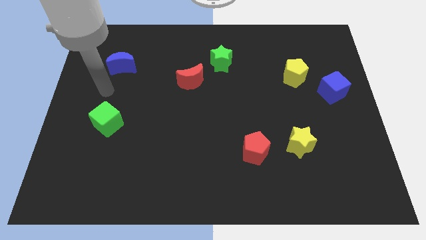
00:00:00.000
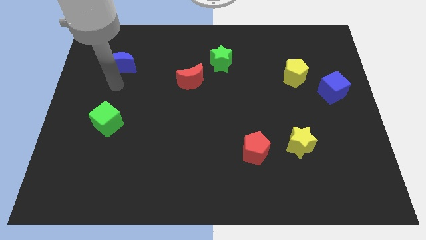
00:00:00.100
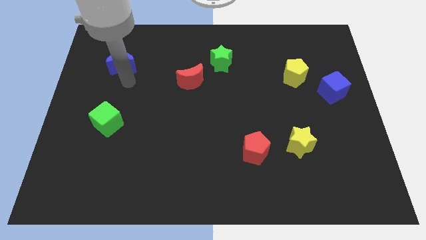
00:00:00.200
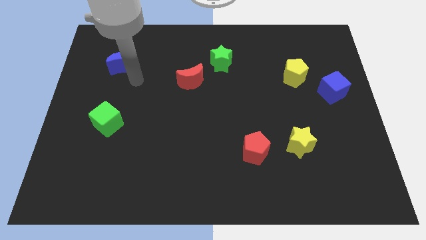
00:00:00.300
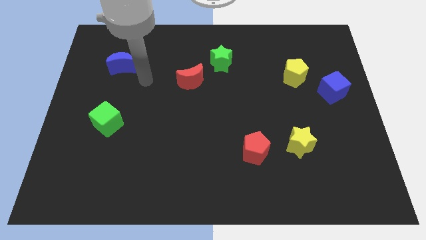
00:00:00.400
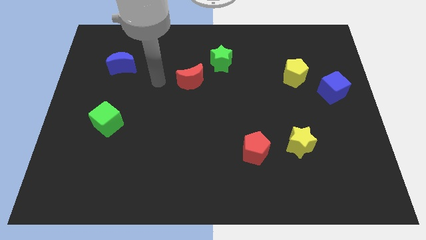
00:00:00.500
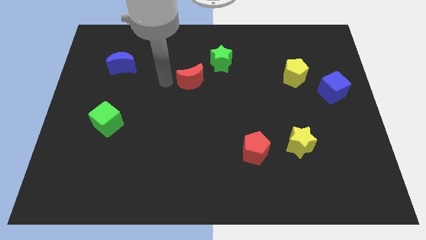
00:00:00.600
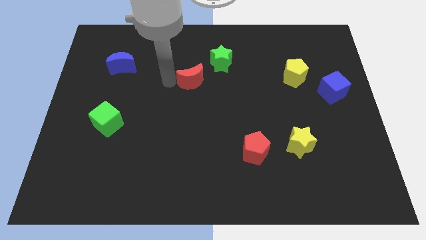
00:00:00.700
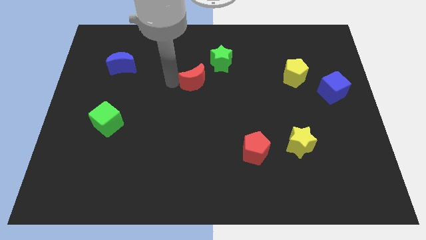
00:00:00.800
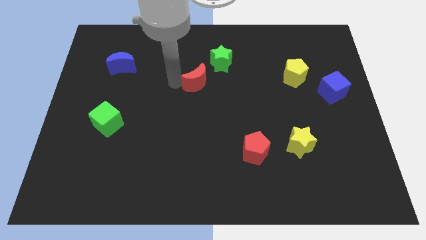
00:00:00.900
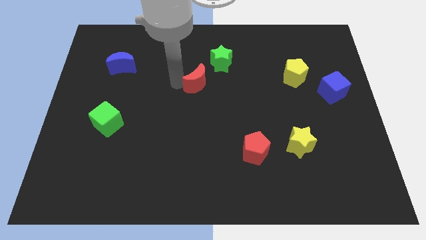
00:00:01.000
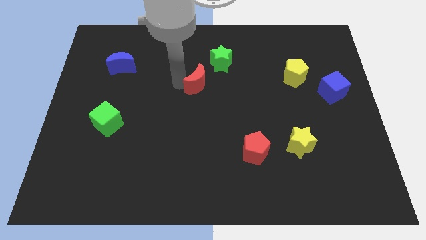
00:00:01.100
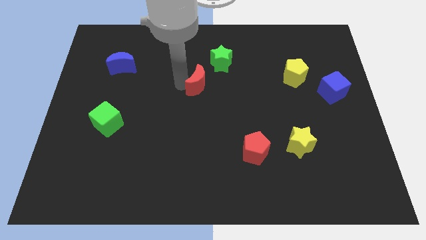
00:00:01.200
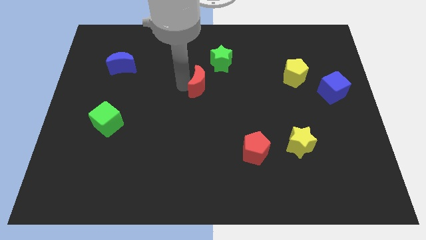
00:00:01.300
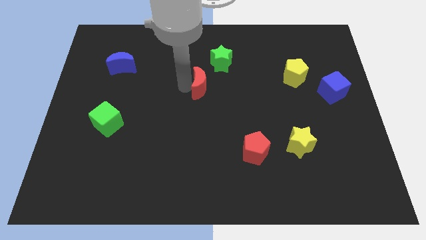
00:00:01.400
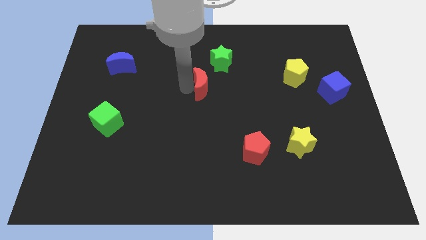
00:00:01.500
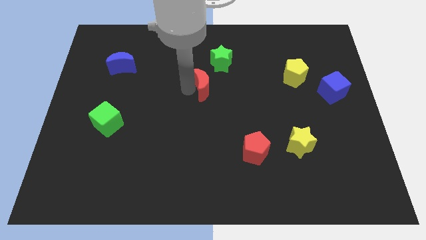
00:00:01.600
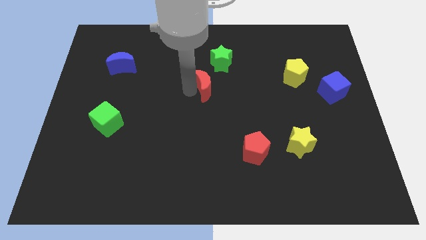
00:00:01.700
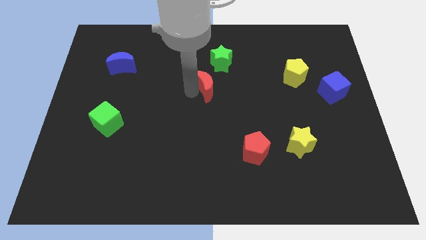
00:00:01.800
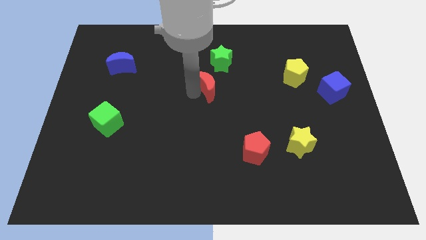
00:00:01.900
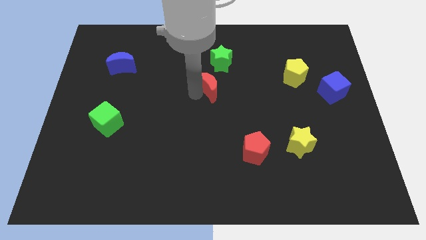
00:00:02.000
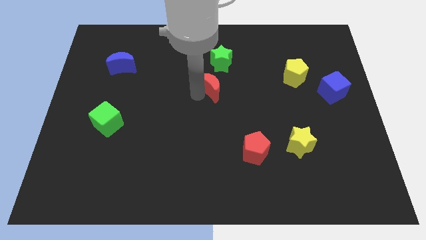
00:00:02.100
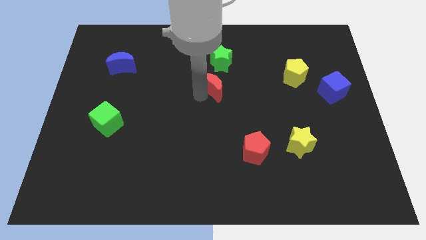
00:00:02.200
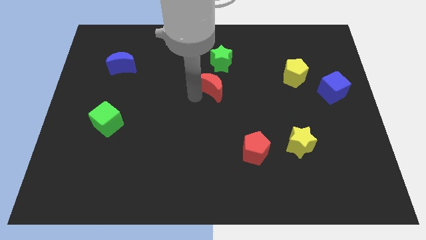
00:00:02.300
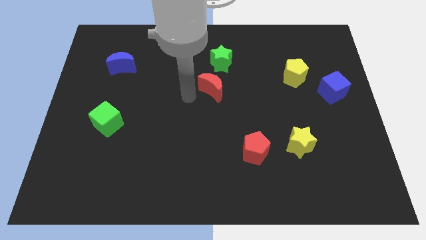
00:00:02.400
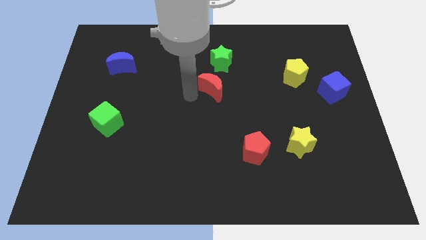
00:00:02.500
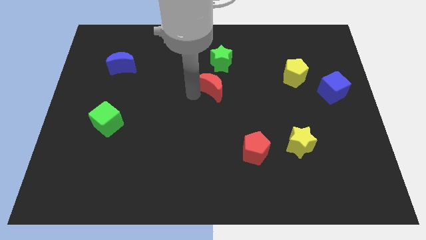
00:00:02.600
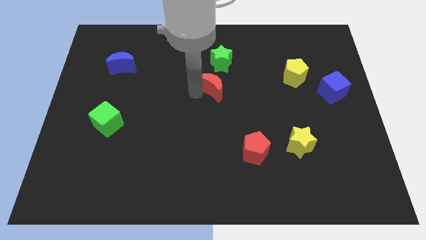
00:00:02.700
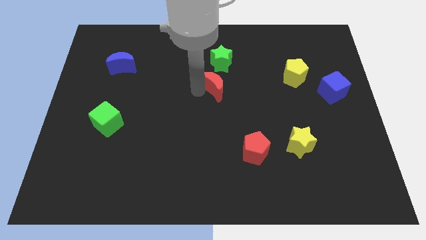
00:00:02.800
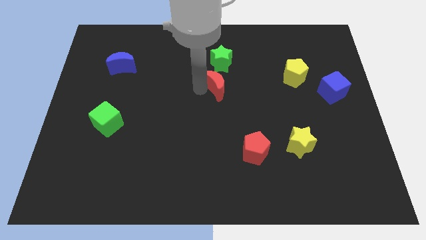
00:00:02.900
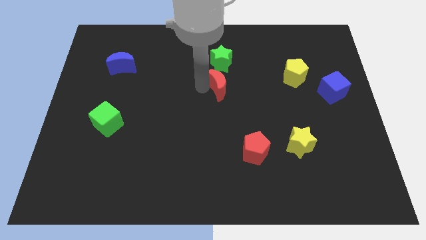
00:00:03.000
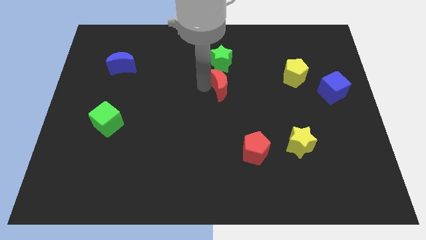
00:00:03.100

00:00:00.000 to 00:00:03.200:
slide the red moon right slightly

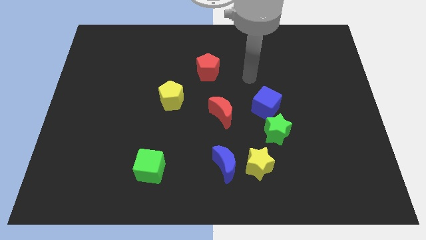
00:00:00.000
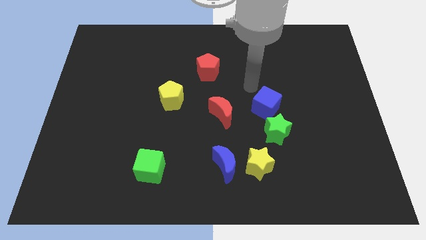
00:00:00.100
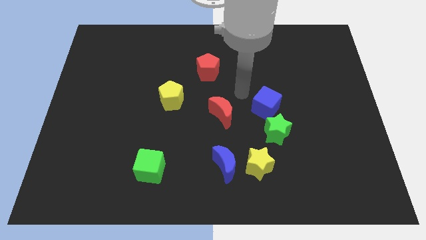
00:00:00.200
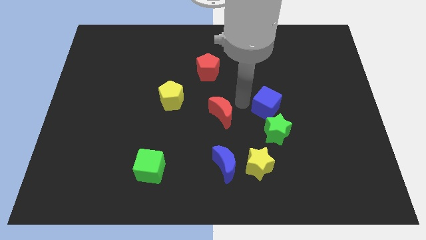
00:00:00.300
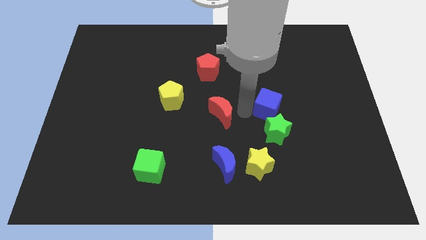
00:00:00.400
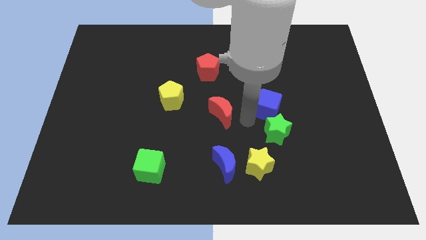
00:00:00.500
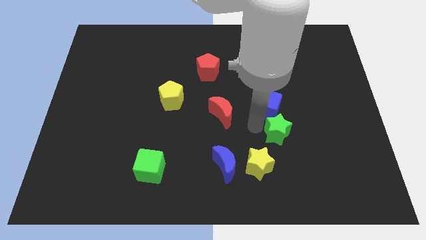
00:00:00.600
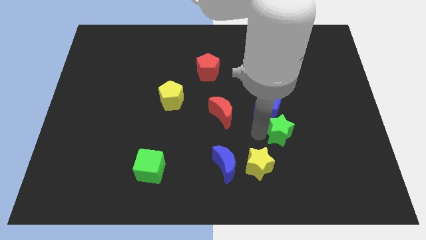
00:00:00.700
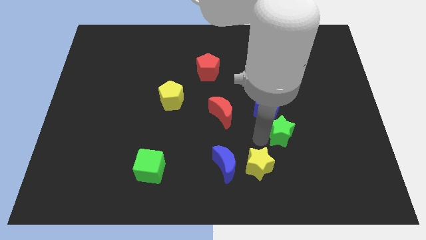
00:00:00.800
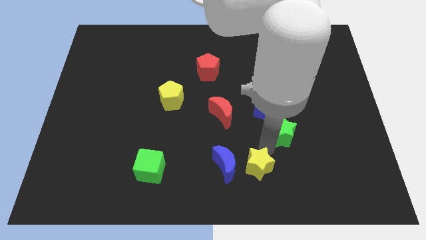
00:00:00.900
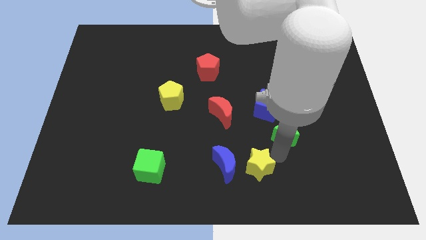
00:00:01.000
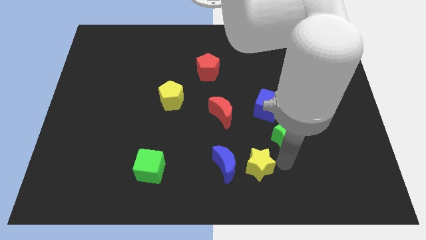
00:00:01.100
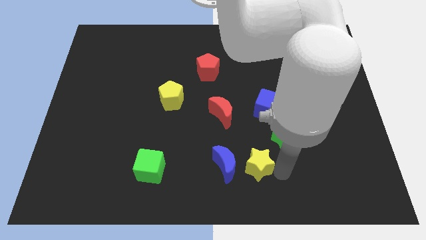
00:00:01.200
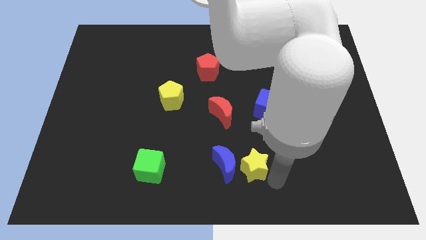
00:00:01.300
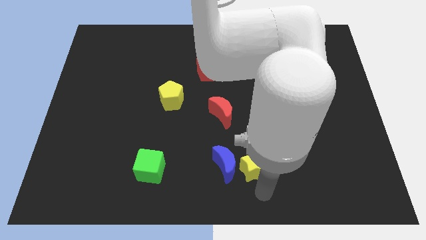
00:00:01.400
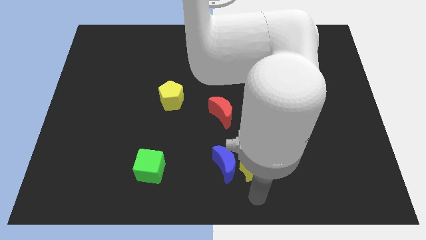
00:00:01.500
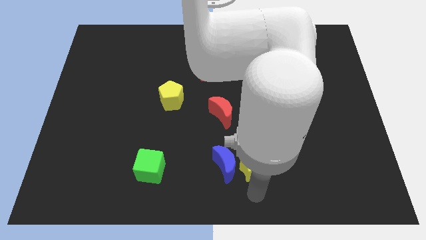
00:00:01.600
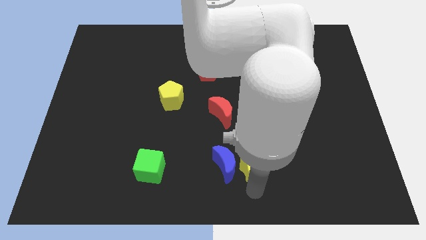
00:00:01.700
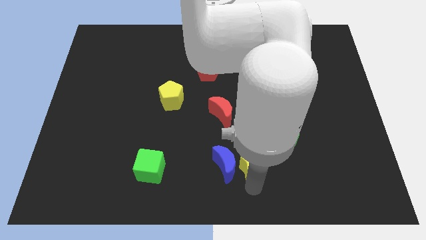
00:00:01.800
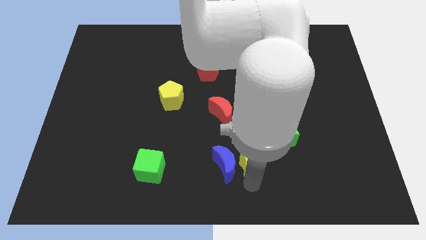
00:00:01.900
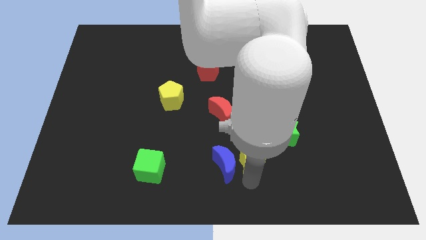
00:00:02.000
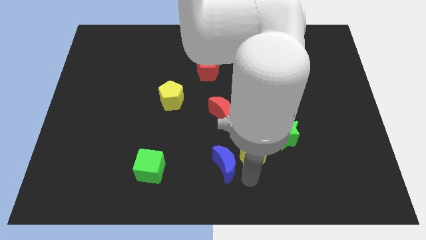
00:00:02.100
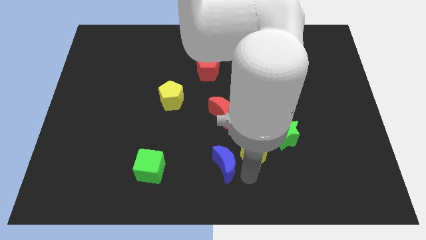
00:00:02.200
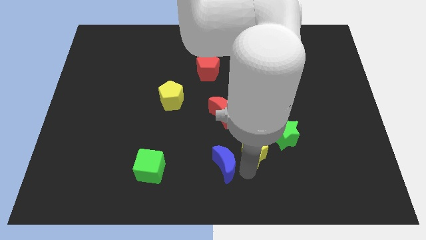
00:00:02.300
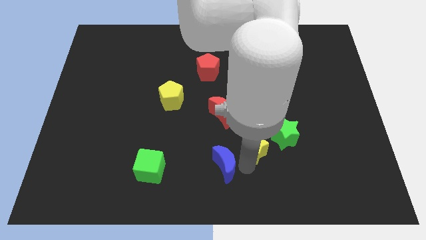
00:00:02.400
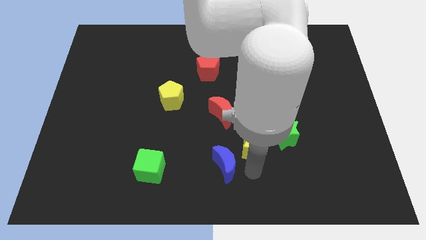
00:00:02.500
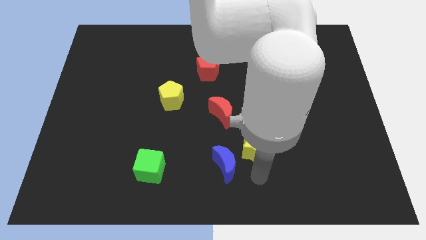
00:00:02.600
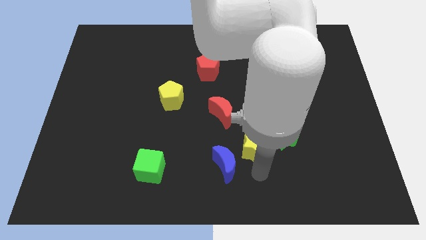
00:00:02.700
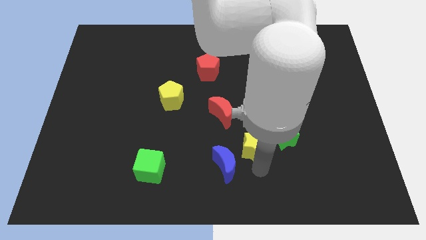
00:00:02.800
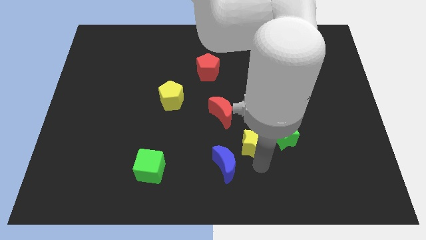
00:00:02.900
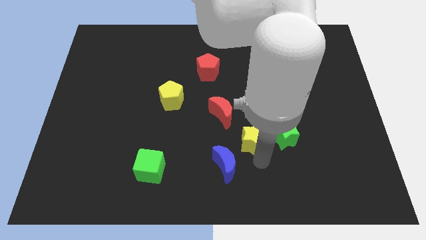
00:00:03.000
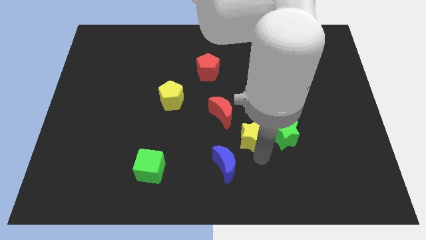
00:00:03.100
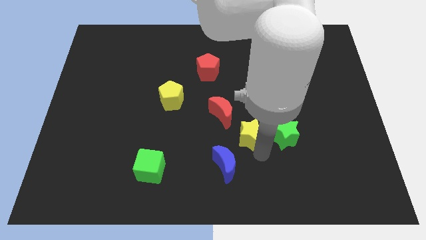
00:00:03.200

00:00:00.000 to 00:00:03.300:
move the yellow star a bit up

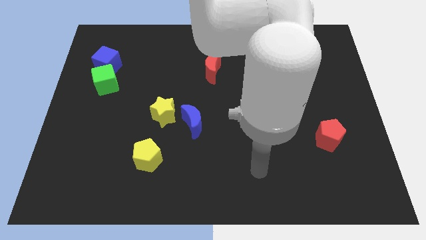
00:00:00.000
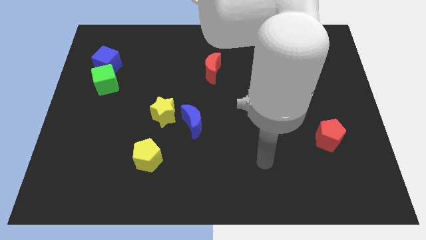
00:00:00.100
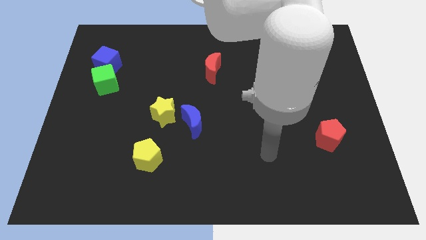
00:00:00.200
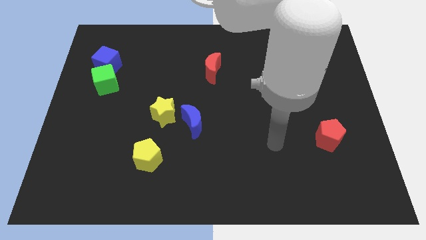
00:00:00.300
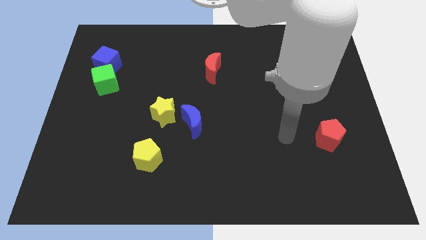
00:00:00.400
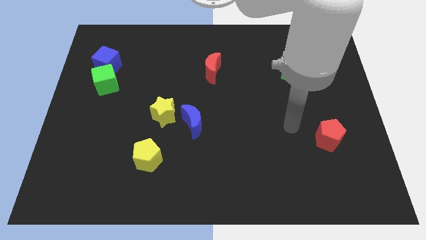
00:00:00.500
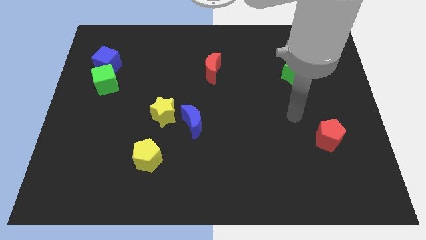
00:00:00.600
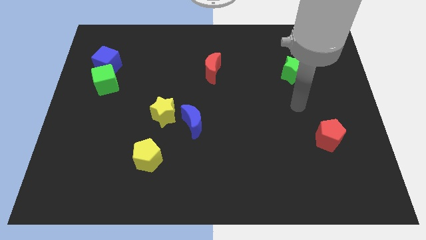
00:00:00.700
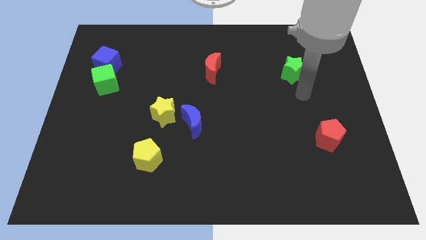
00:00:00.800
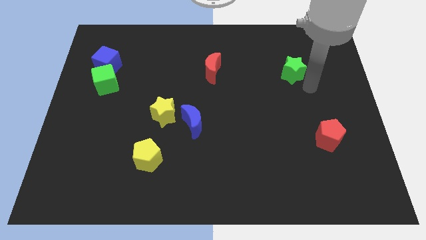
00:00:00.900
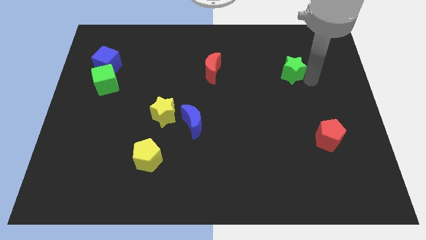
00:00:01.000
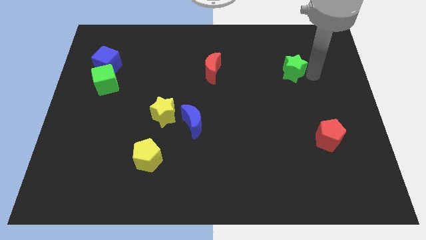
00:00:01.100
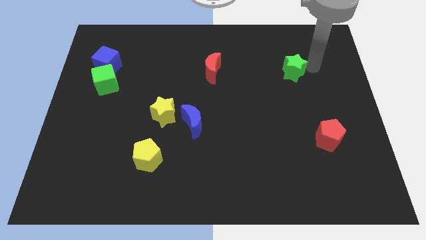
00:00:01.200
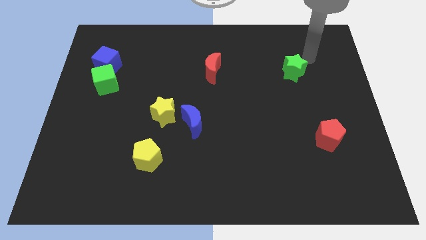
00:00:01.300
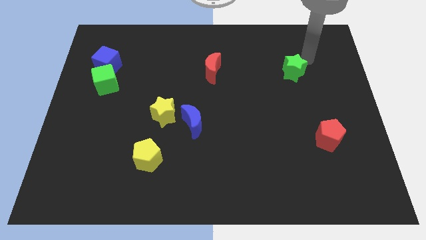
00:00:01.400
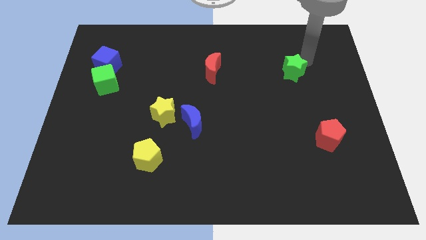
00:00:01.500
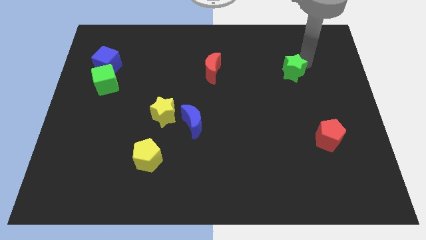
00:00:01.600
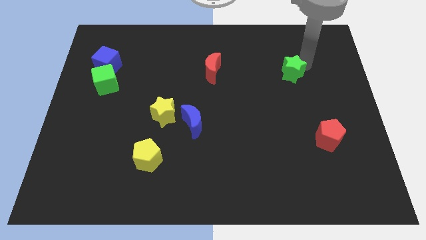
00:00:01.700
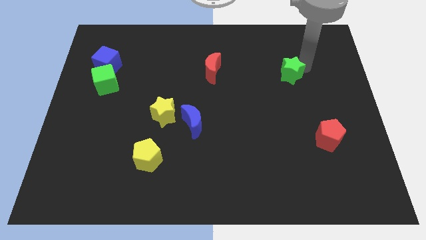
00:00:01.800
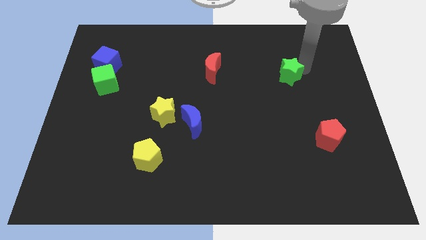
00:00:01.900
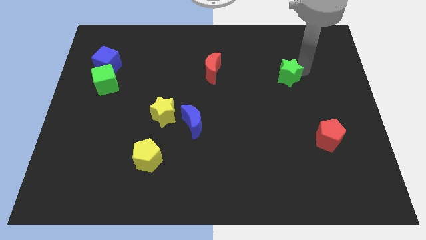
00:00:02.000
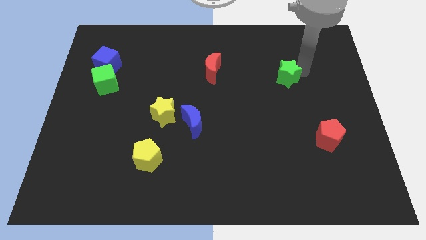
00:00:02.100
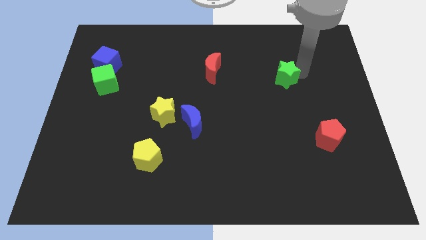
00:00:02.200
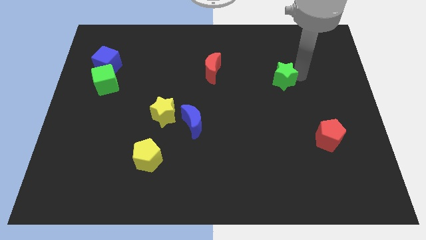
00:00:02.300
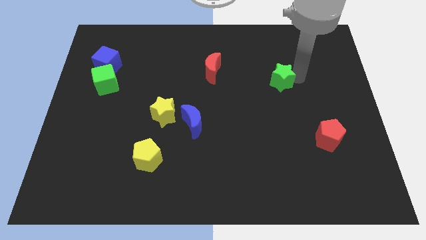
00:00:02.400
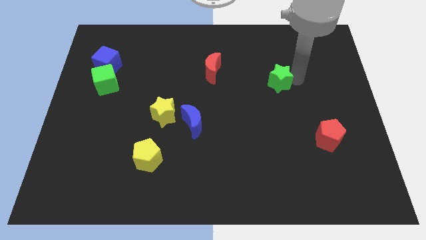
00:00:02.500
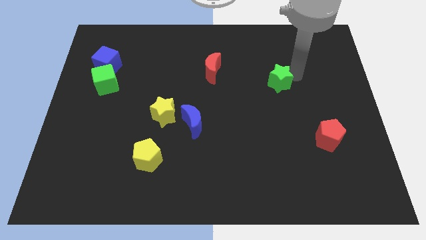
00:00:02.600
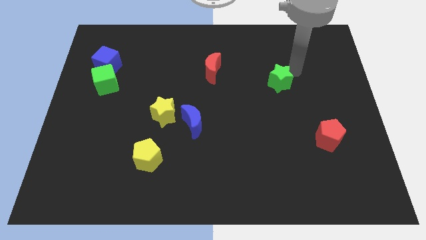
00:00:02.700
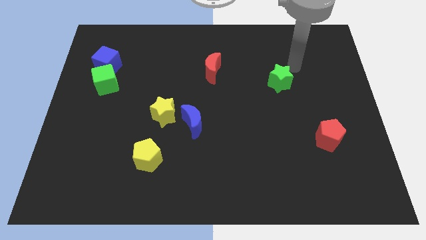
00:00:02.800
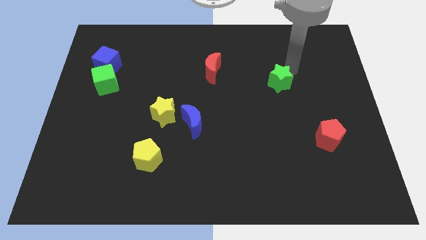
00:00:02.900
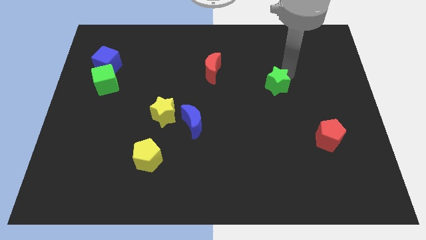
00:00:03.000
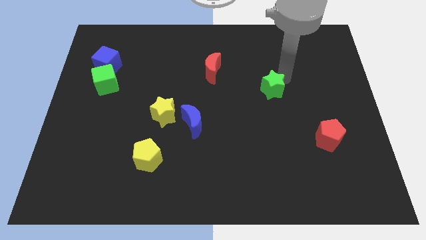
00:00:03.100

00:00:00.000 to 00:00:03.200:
slightly slide the green star downwards and then to the left
